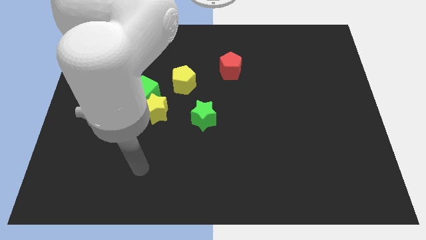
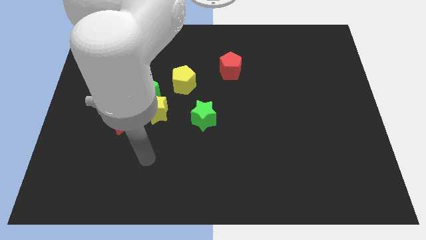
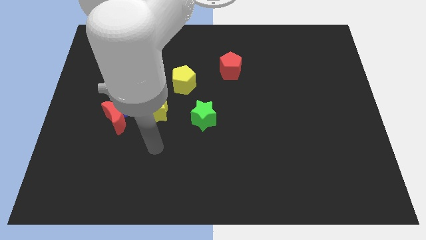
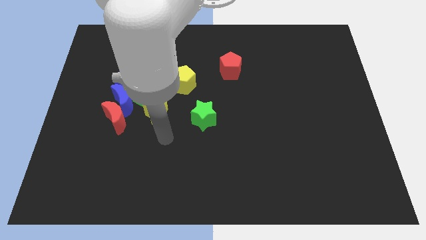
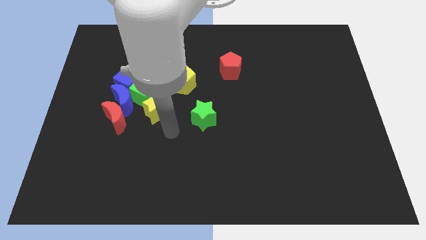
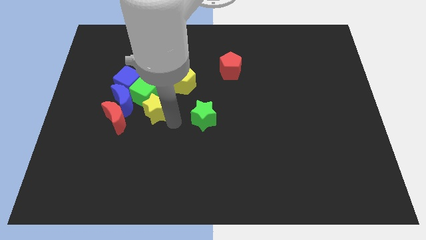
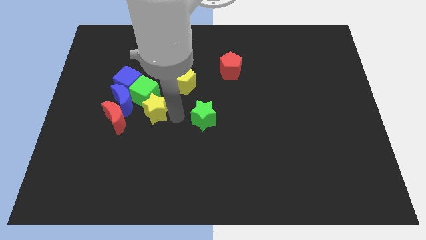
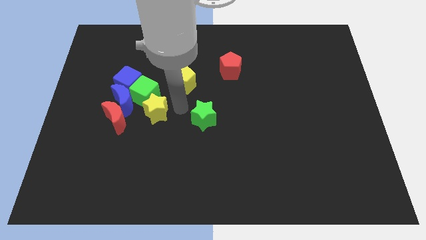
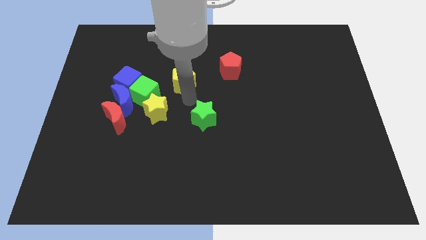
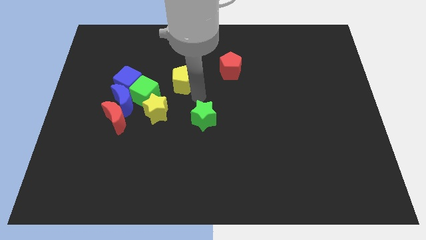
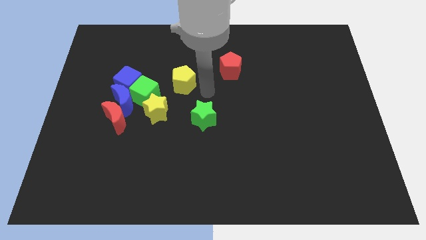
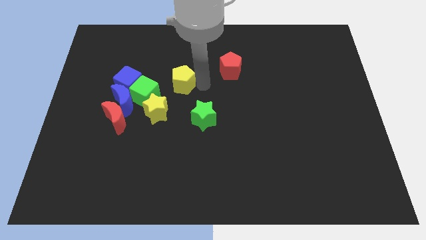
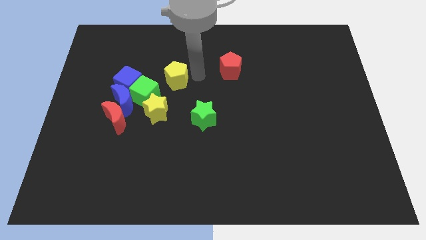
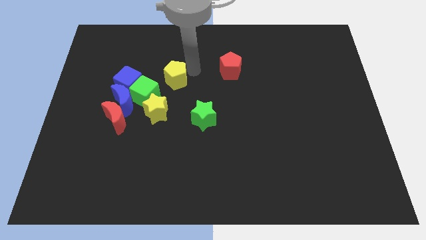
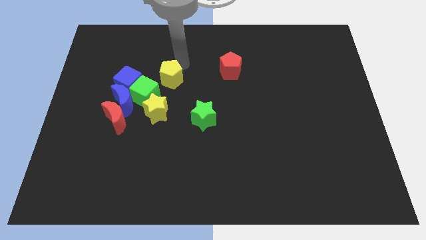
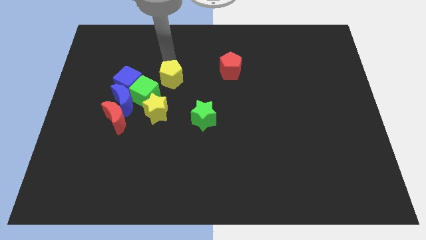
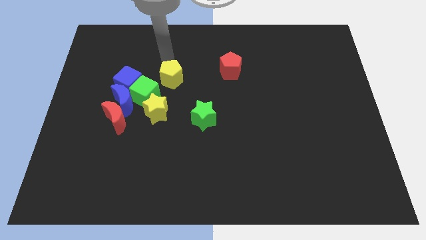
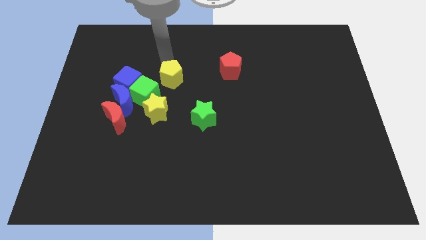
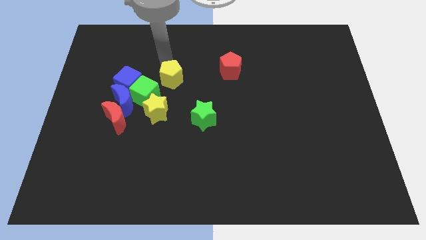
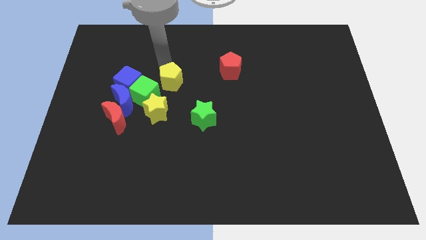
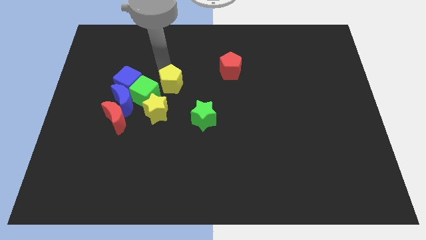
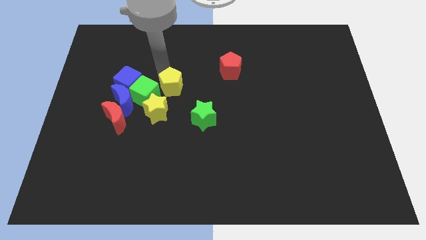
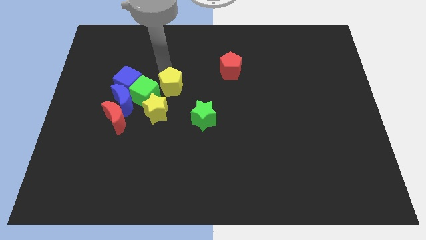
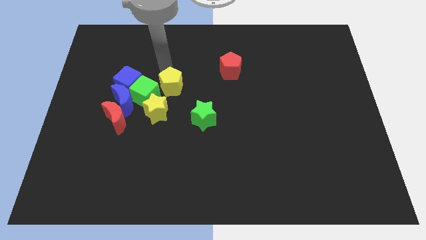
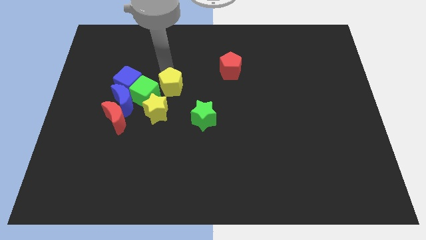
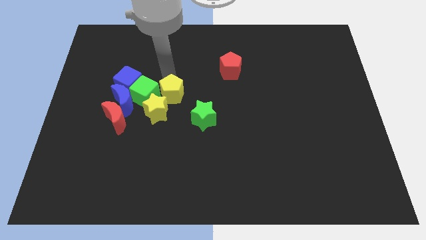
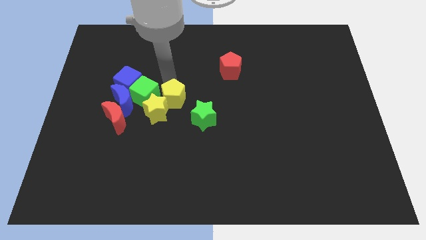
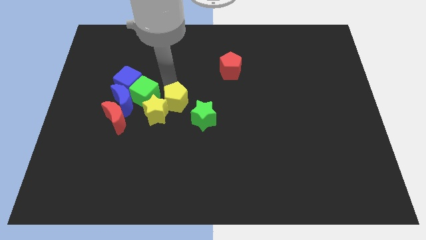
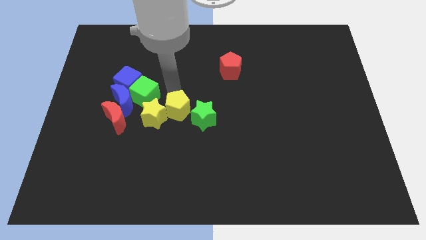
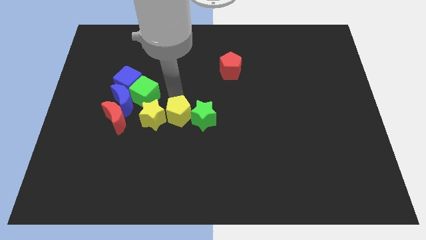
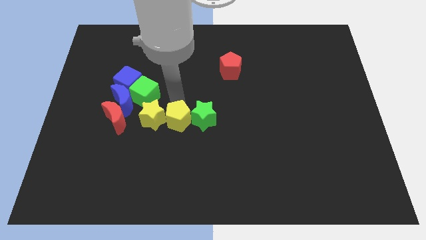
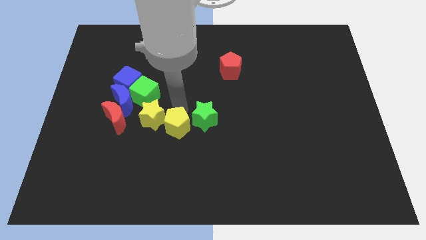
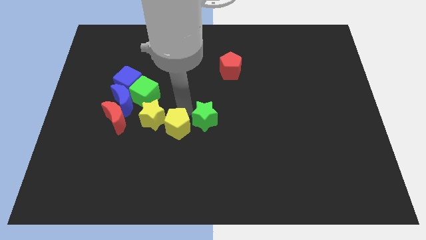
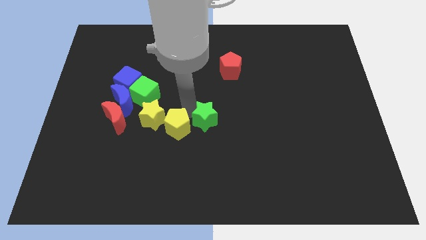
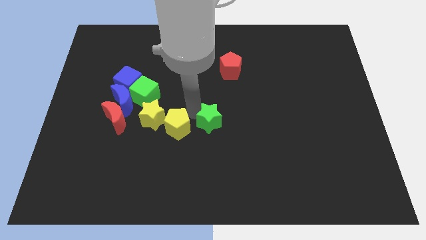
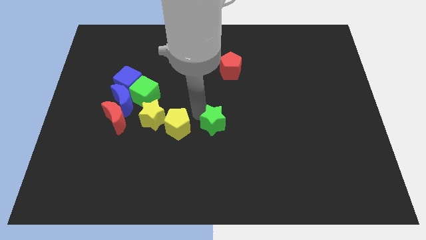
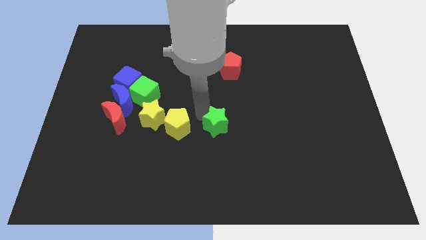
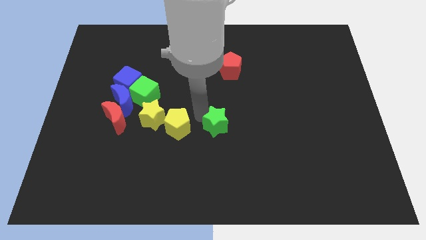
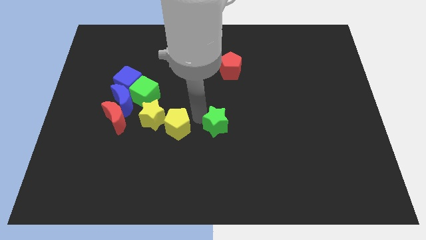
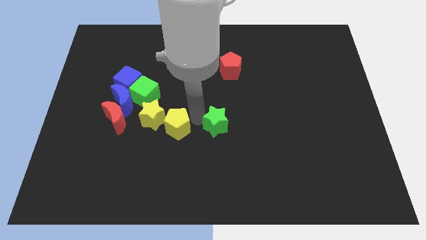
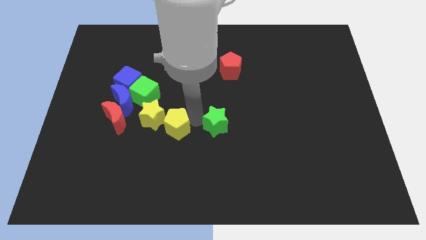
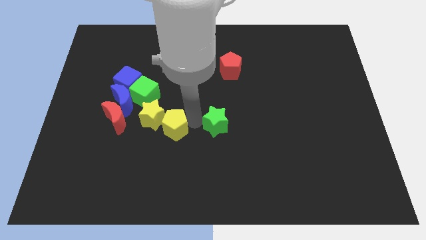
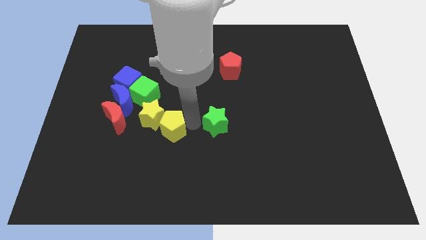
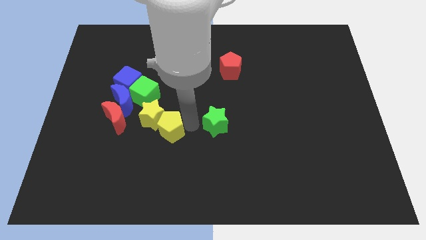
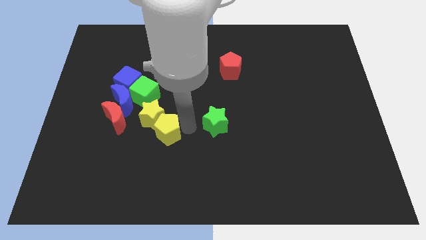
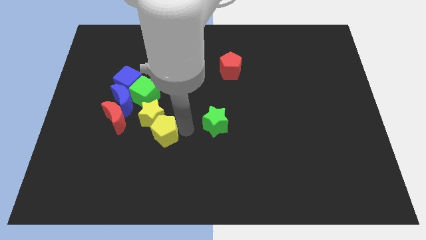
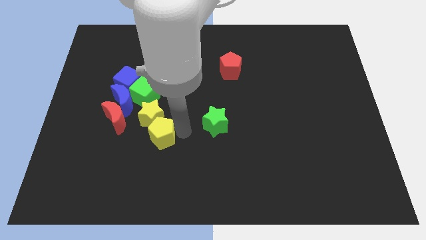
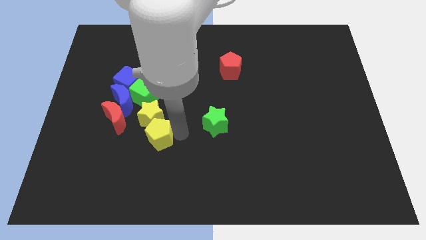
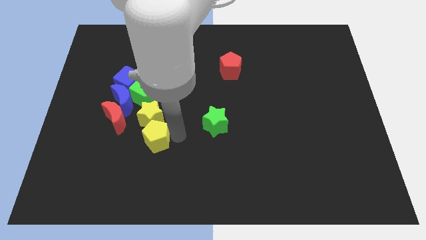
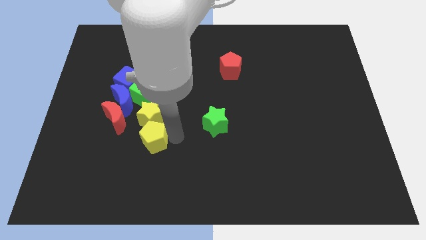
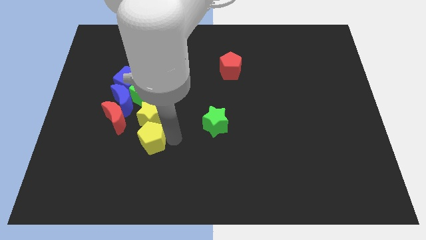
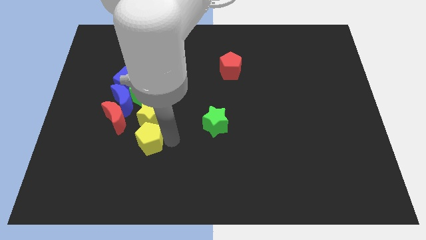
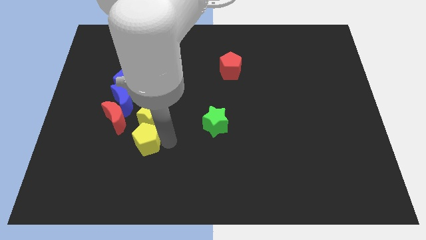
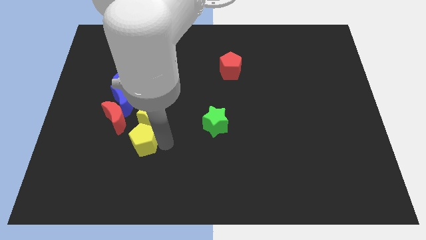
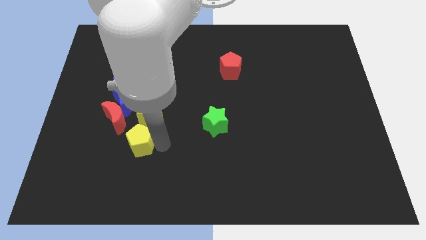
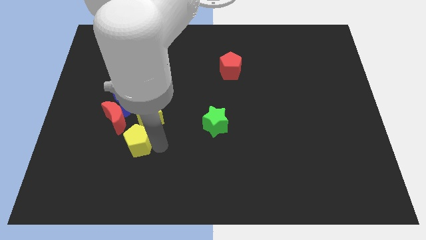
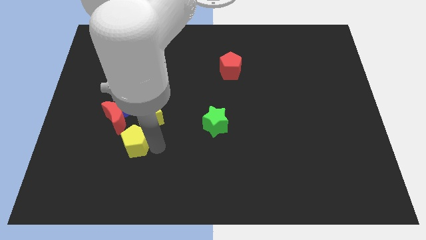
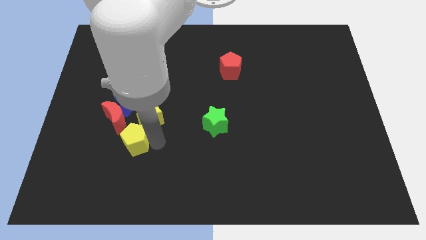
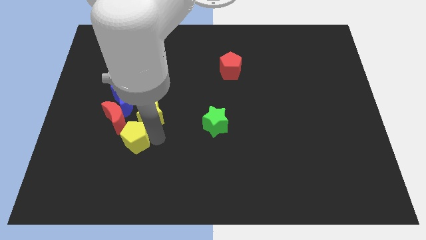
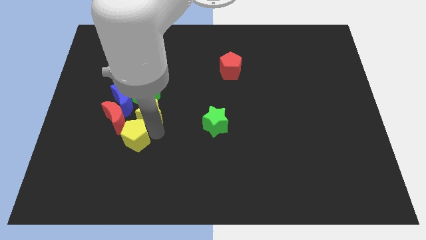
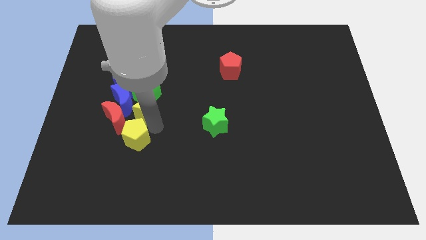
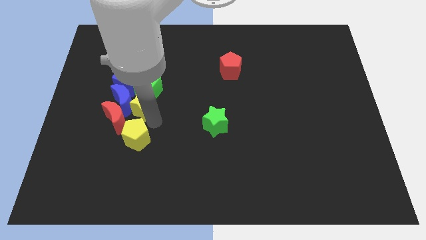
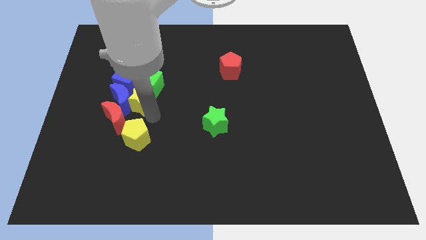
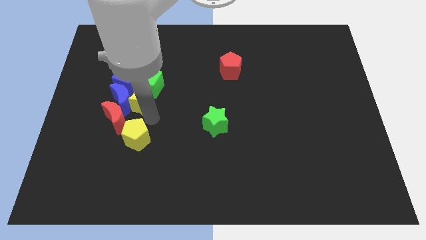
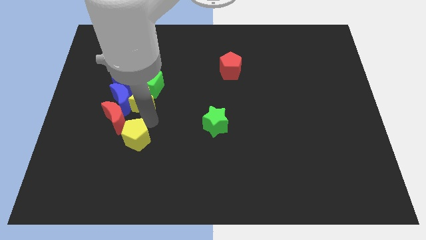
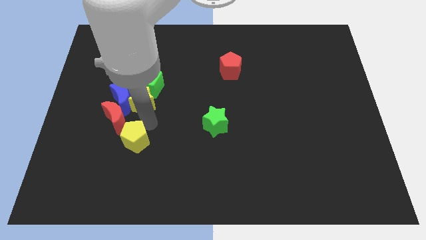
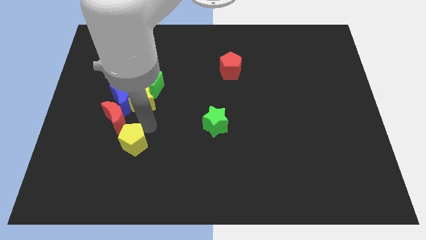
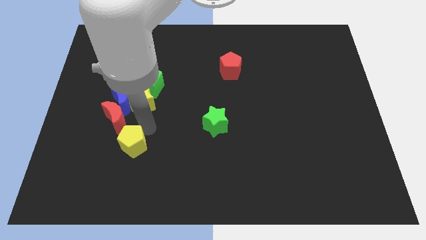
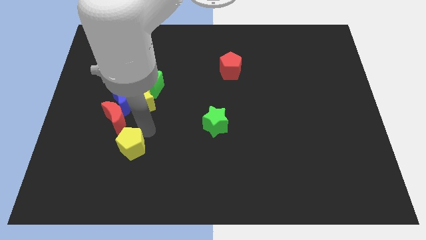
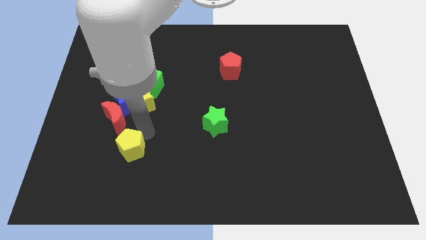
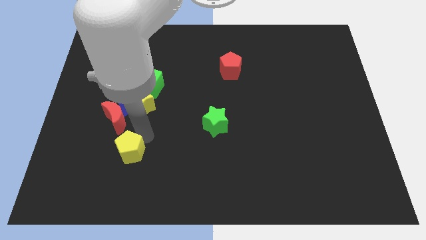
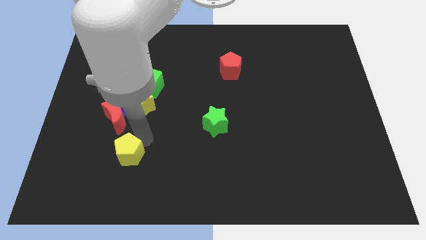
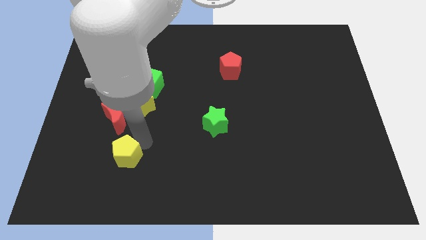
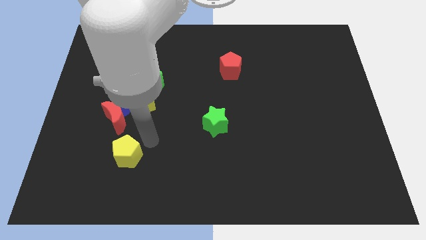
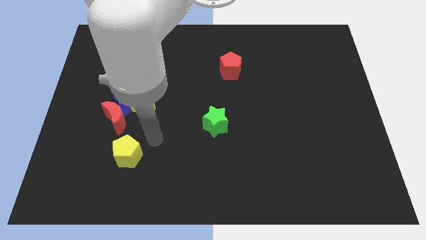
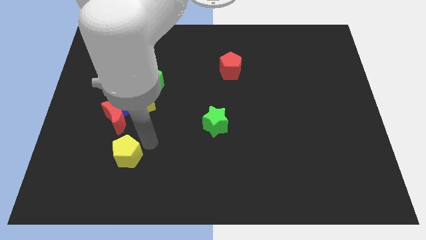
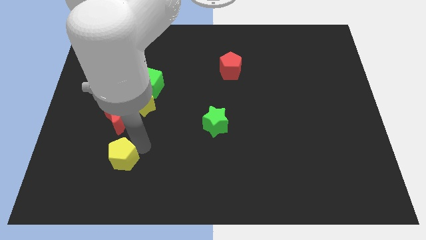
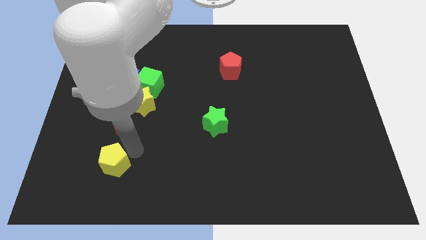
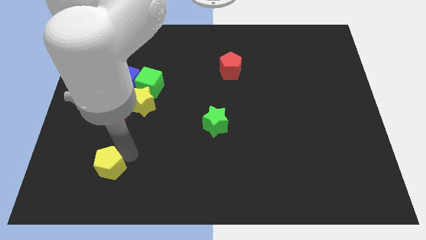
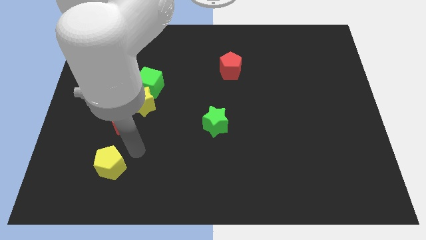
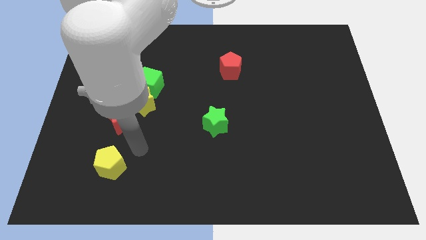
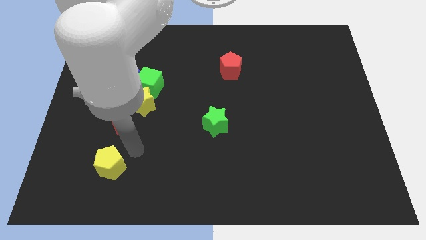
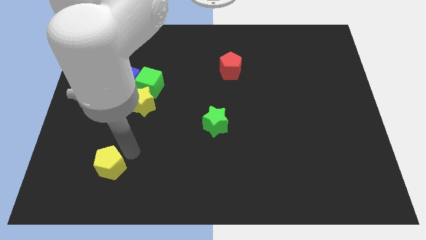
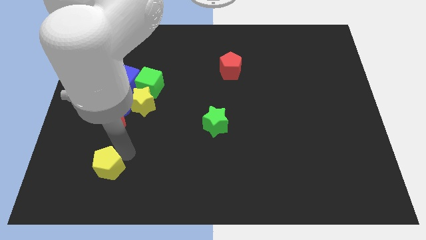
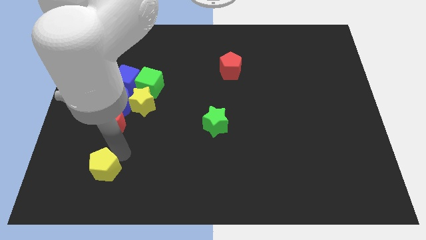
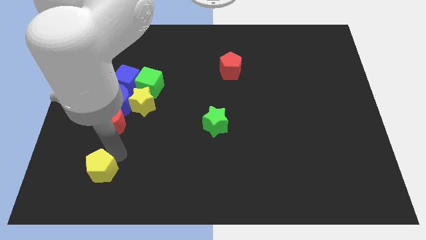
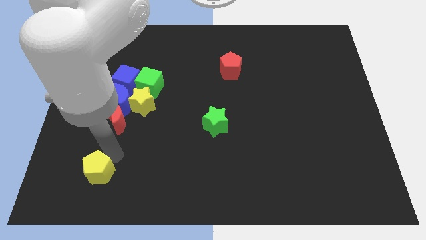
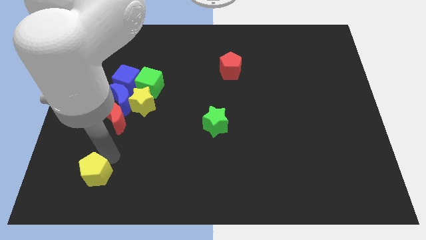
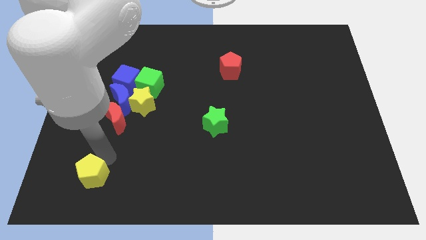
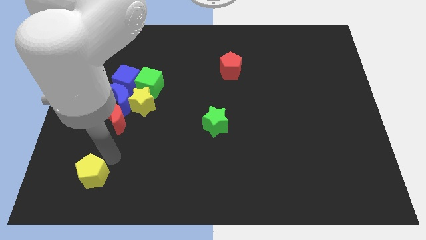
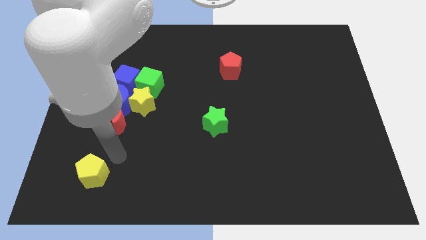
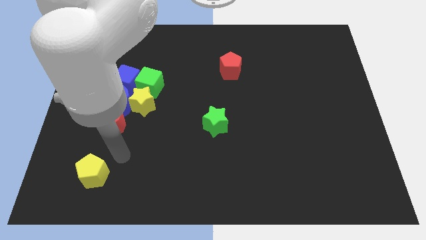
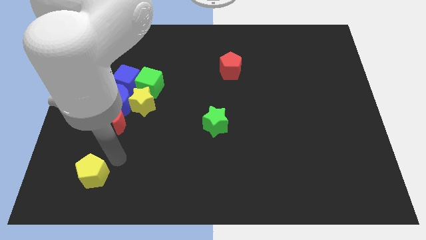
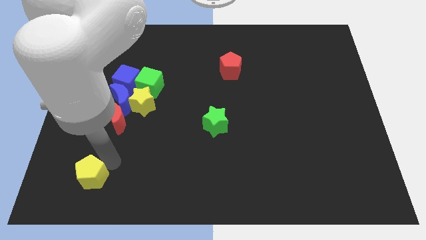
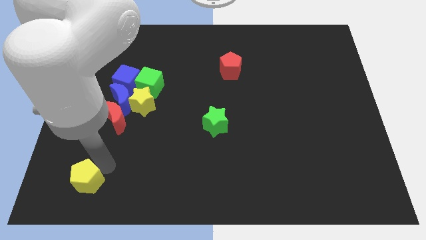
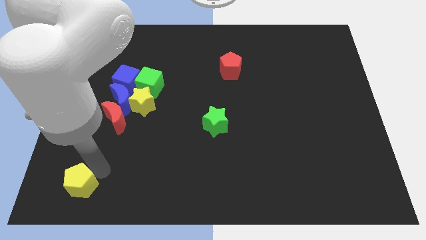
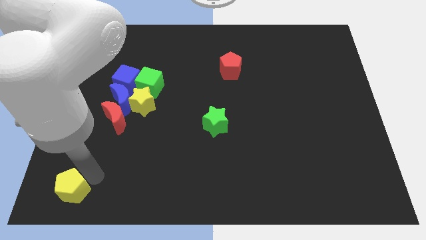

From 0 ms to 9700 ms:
move the yellow pentagon to the lower left corner
